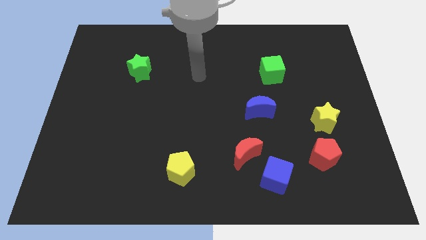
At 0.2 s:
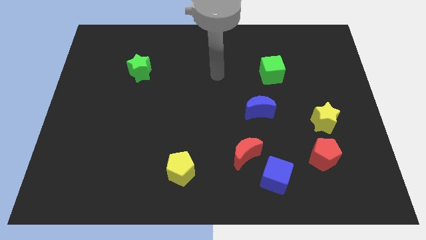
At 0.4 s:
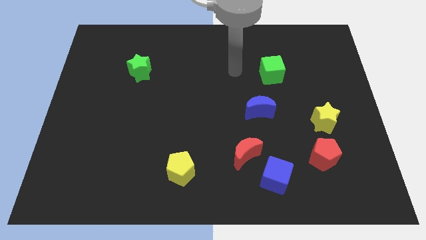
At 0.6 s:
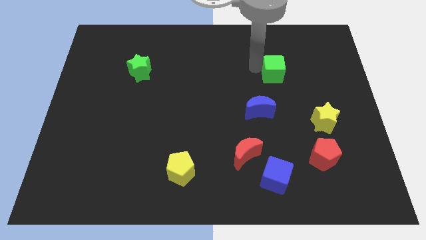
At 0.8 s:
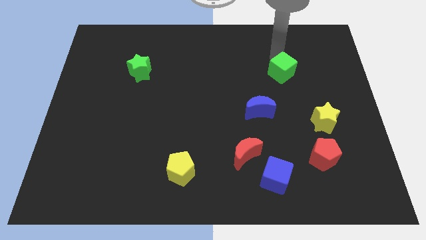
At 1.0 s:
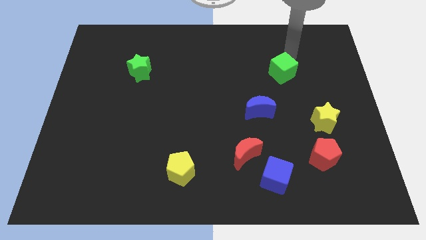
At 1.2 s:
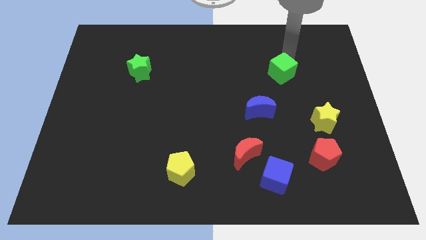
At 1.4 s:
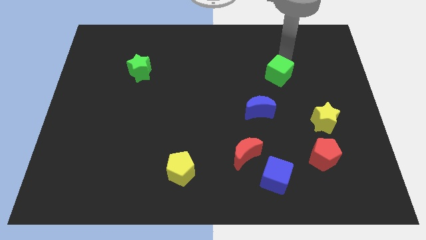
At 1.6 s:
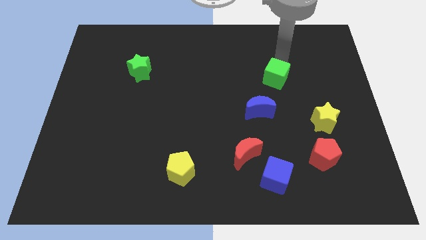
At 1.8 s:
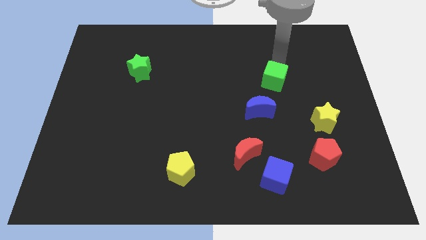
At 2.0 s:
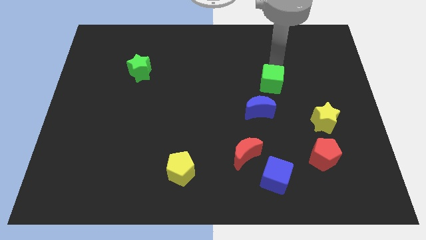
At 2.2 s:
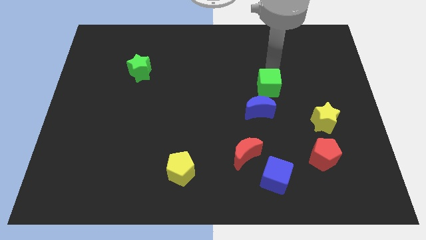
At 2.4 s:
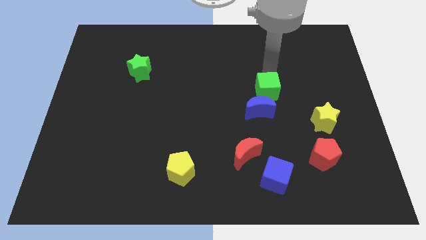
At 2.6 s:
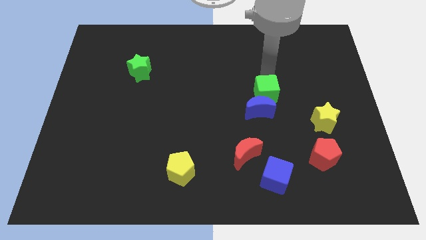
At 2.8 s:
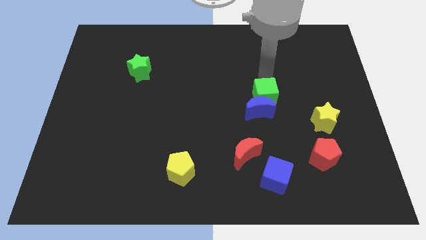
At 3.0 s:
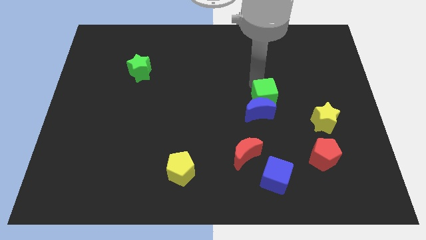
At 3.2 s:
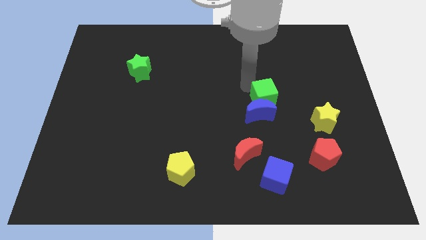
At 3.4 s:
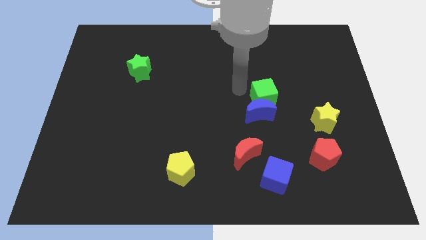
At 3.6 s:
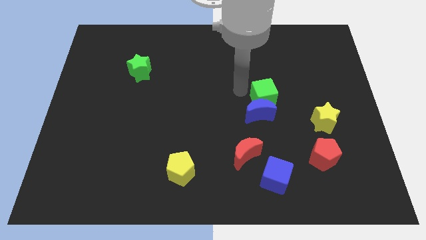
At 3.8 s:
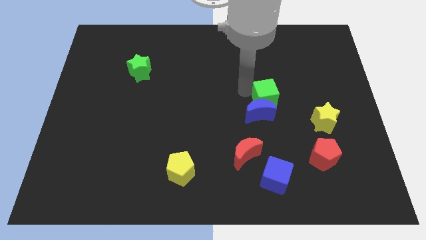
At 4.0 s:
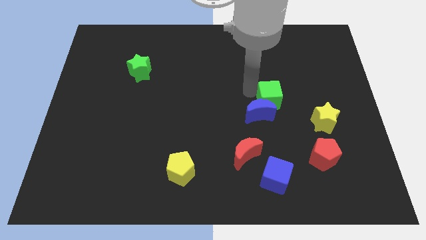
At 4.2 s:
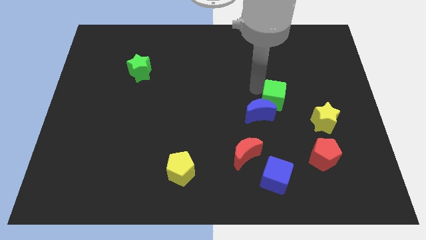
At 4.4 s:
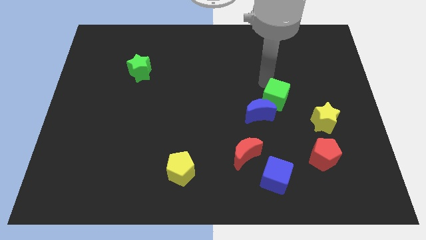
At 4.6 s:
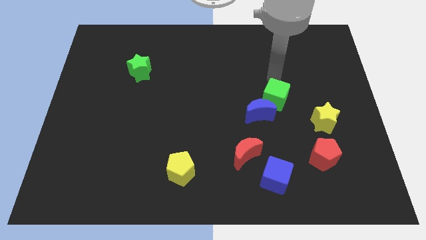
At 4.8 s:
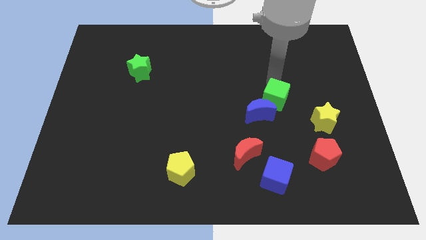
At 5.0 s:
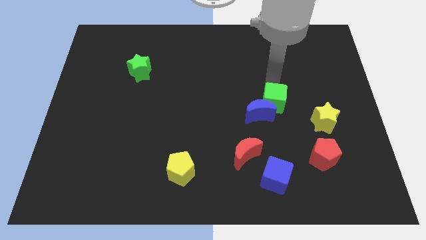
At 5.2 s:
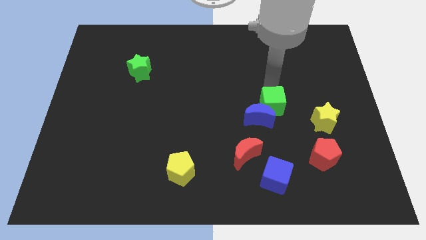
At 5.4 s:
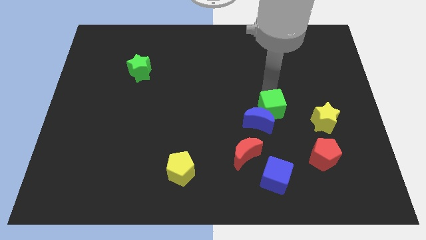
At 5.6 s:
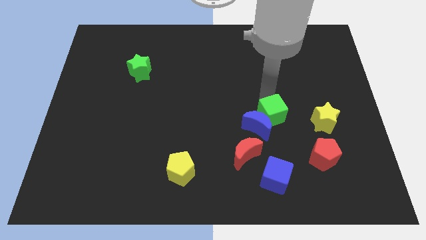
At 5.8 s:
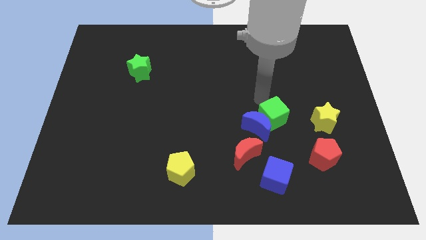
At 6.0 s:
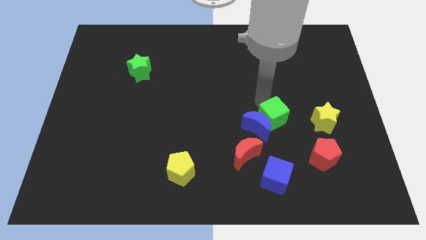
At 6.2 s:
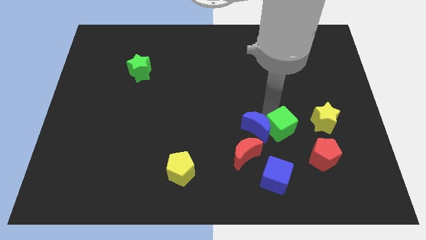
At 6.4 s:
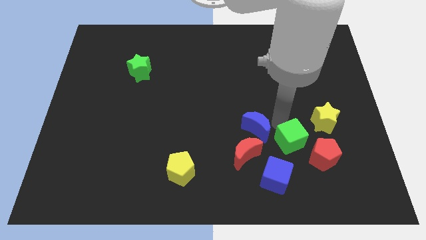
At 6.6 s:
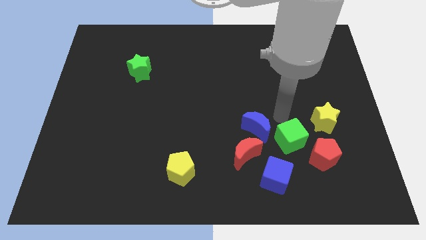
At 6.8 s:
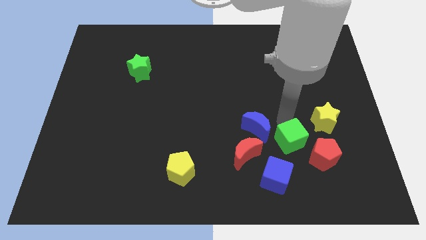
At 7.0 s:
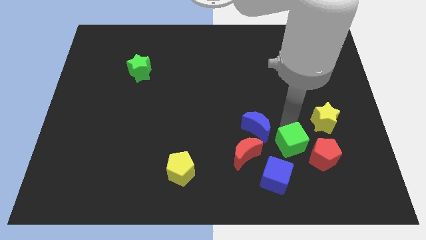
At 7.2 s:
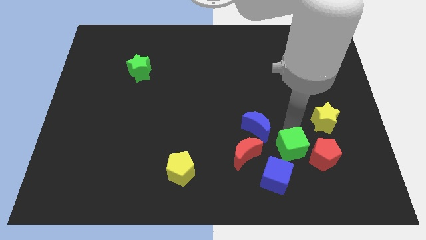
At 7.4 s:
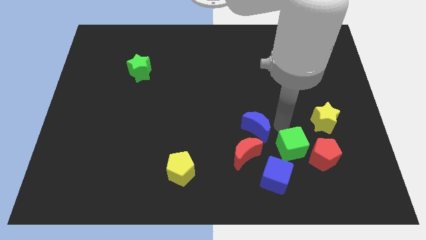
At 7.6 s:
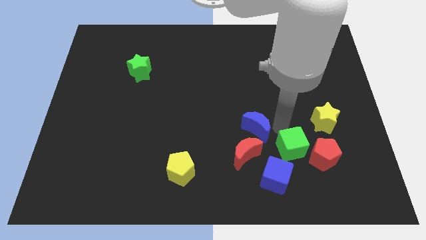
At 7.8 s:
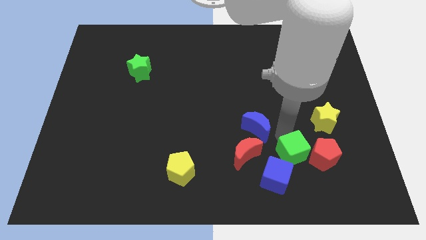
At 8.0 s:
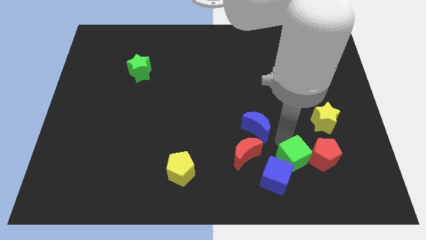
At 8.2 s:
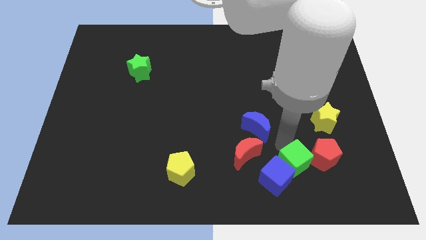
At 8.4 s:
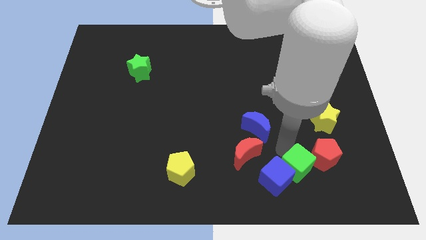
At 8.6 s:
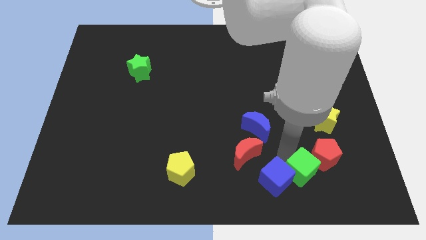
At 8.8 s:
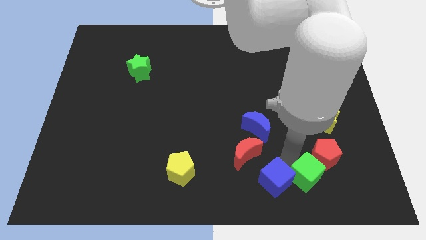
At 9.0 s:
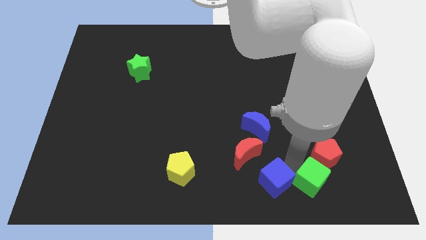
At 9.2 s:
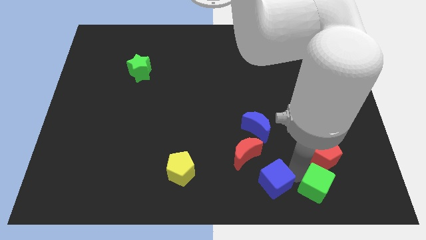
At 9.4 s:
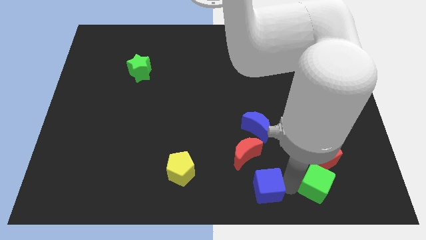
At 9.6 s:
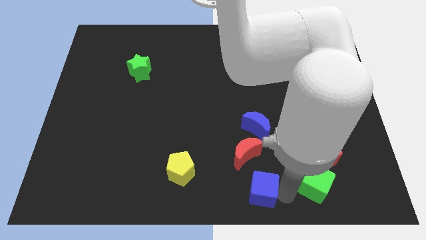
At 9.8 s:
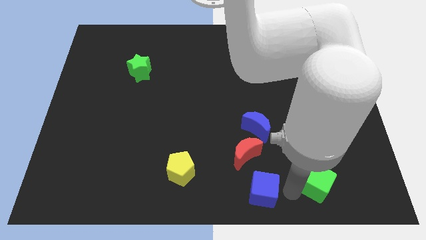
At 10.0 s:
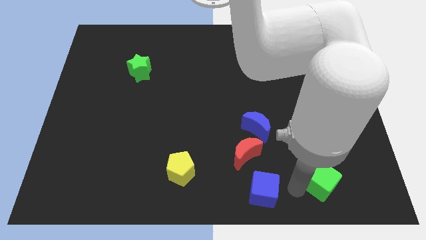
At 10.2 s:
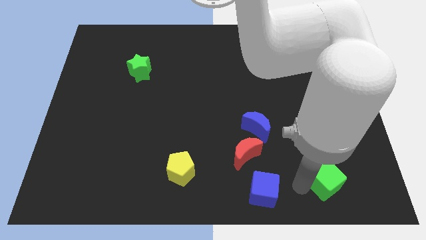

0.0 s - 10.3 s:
move the green cube to the bottom side of the yellow star

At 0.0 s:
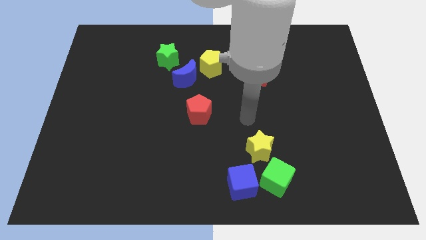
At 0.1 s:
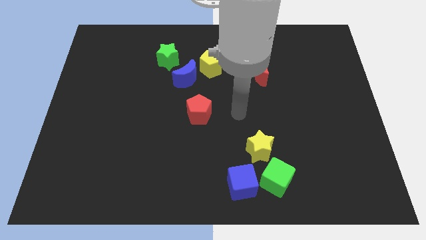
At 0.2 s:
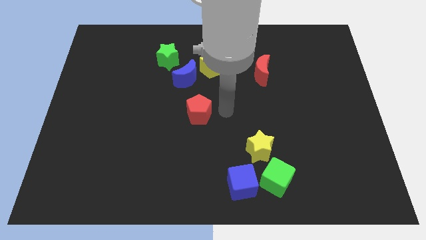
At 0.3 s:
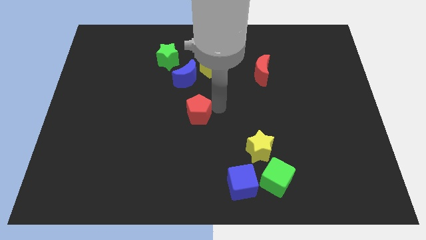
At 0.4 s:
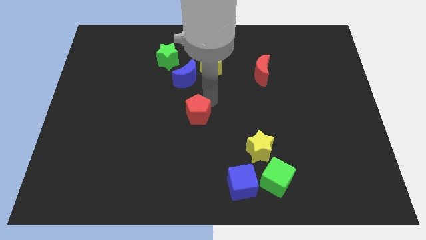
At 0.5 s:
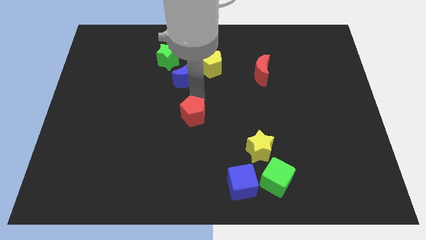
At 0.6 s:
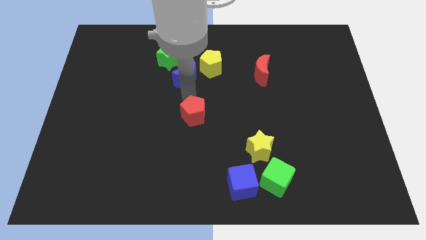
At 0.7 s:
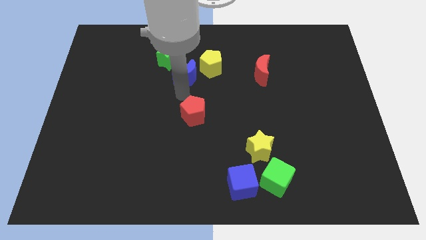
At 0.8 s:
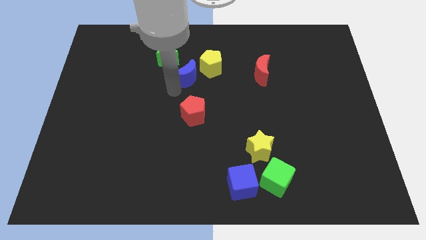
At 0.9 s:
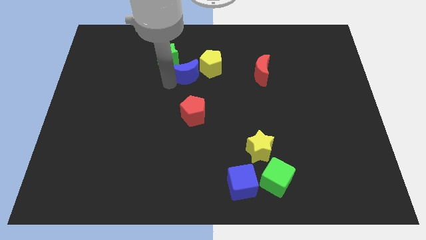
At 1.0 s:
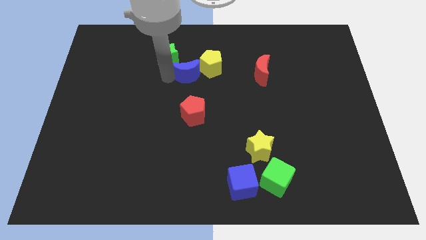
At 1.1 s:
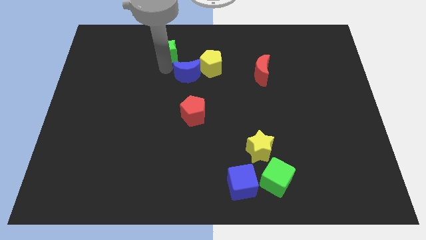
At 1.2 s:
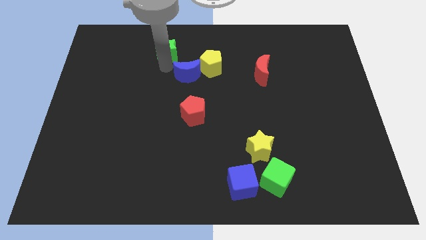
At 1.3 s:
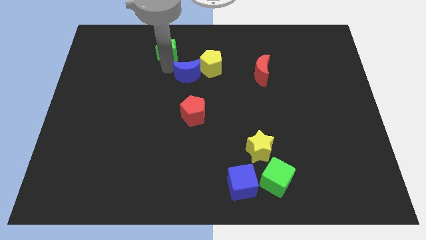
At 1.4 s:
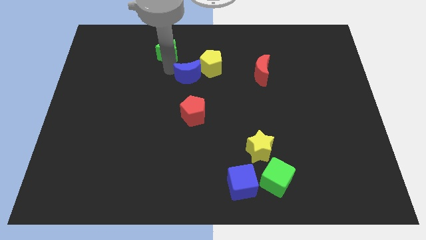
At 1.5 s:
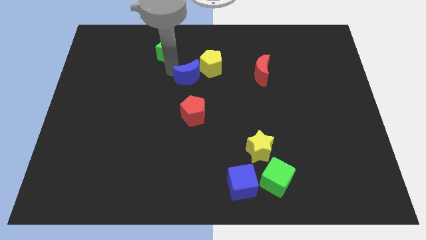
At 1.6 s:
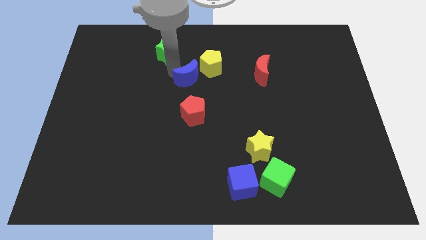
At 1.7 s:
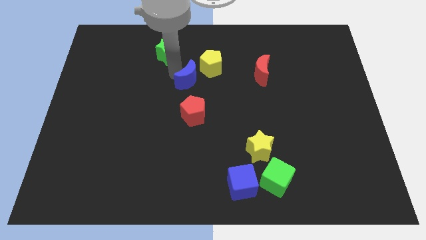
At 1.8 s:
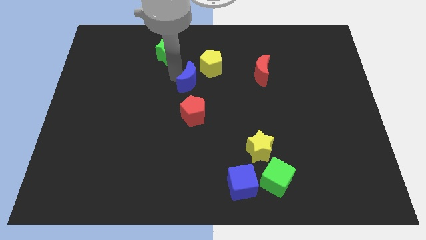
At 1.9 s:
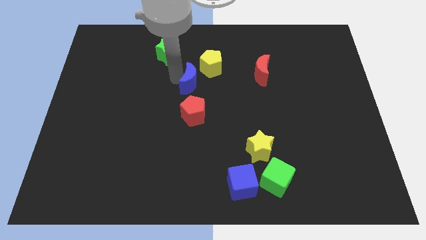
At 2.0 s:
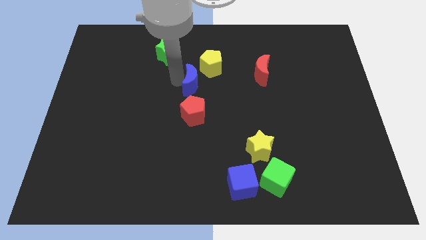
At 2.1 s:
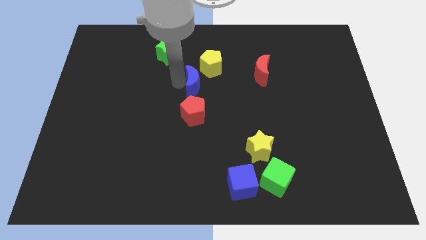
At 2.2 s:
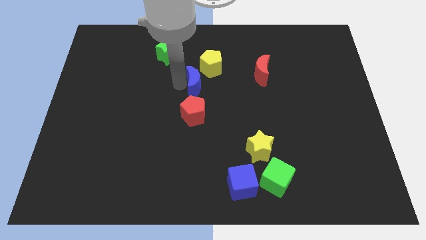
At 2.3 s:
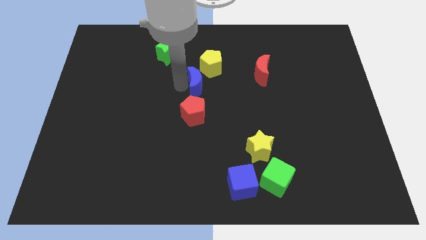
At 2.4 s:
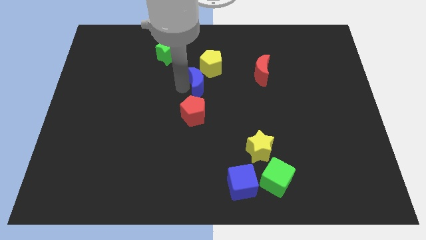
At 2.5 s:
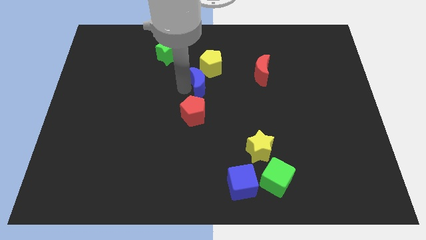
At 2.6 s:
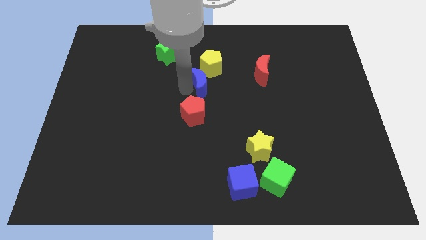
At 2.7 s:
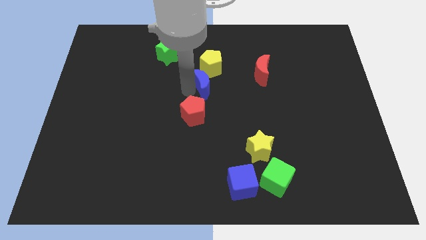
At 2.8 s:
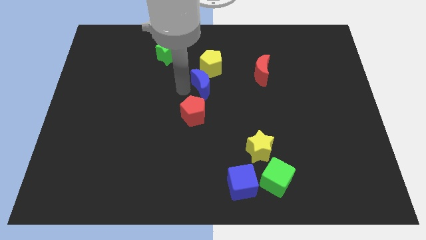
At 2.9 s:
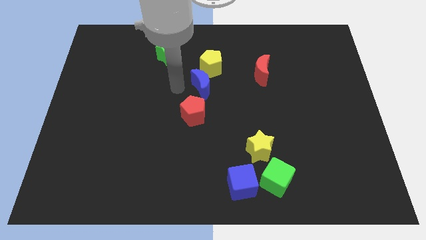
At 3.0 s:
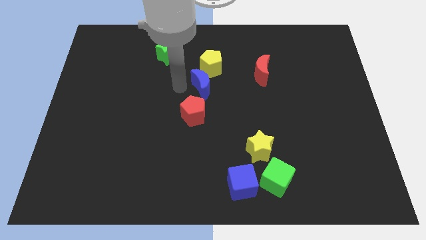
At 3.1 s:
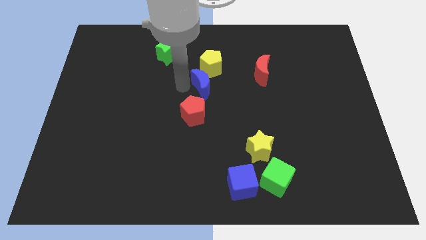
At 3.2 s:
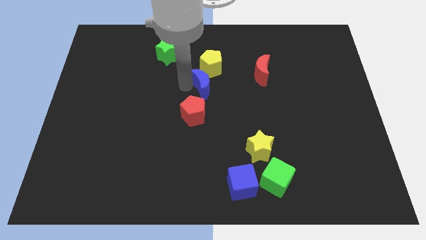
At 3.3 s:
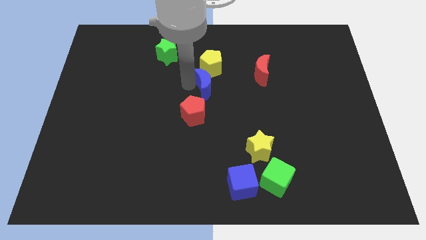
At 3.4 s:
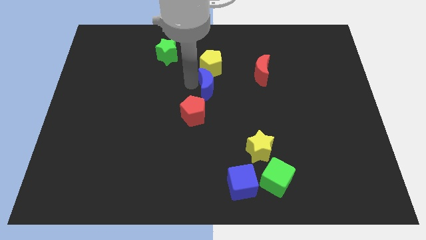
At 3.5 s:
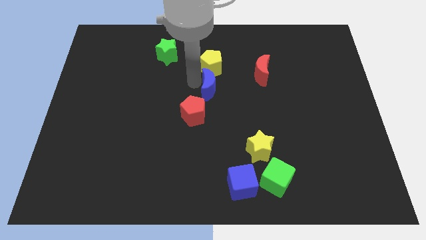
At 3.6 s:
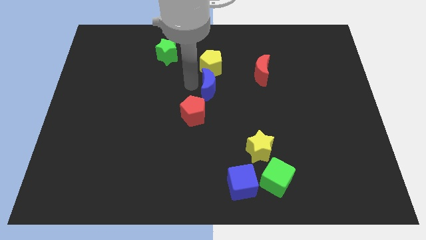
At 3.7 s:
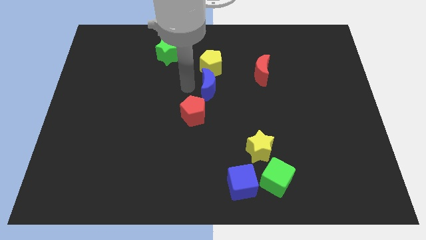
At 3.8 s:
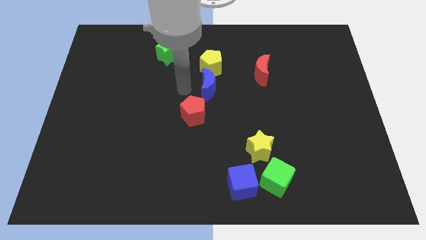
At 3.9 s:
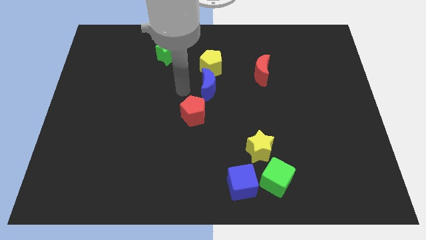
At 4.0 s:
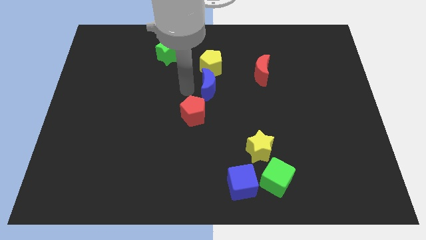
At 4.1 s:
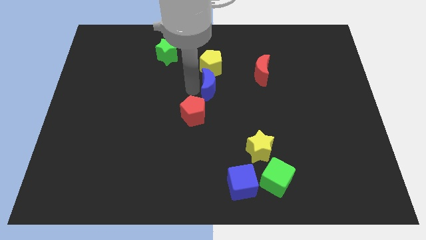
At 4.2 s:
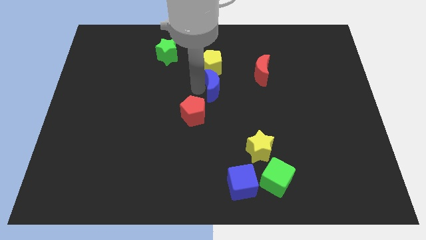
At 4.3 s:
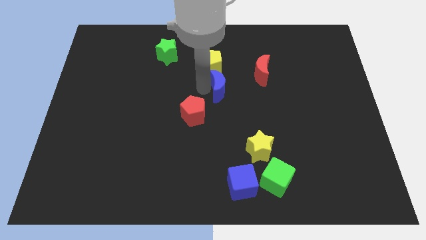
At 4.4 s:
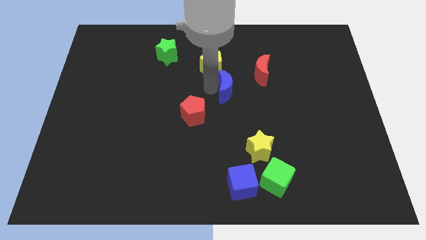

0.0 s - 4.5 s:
move the blue moon diagonally down and to the left of the red moon
